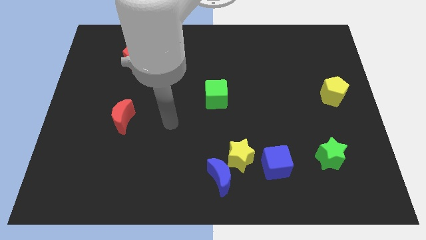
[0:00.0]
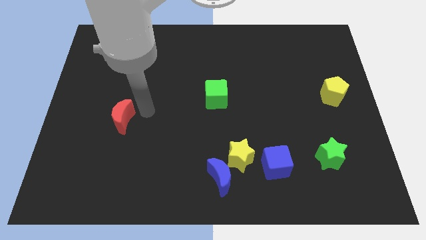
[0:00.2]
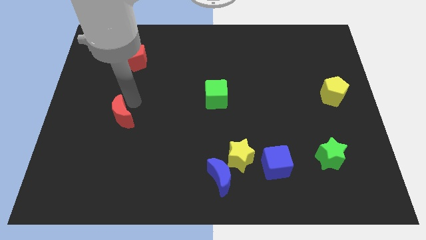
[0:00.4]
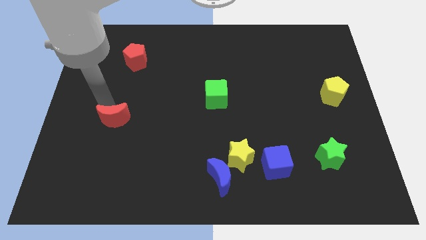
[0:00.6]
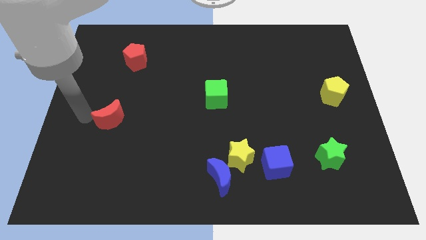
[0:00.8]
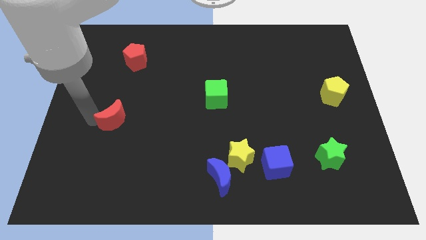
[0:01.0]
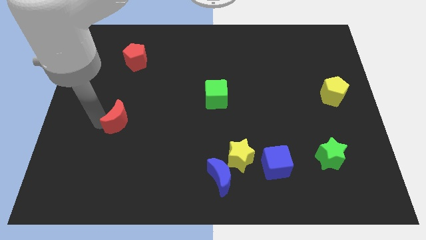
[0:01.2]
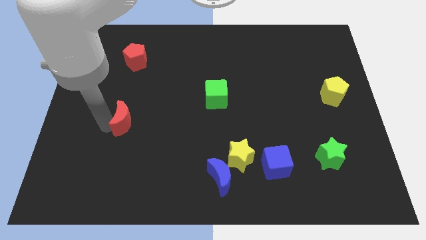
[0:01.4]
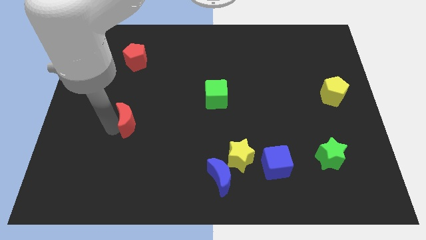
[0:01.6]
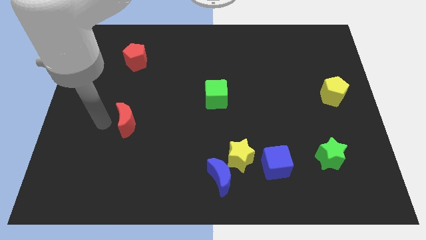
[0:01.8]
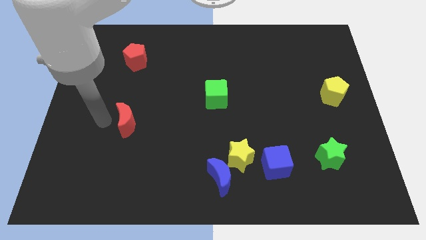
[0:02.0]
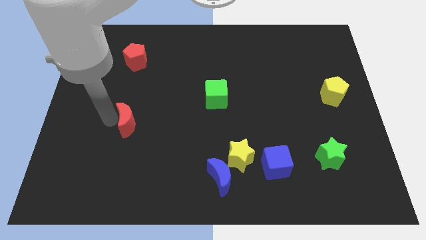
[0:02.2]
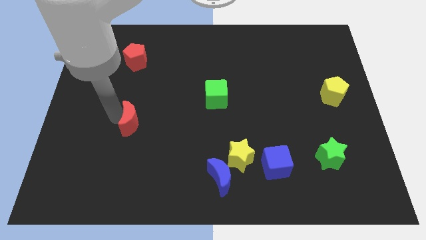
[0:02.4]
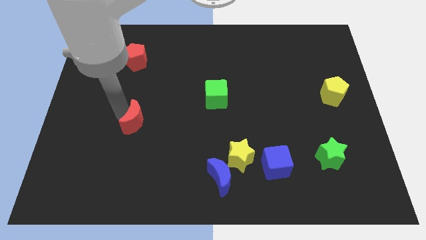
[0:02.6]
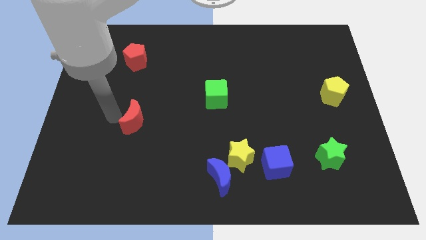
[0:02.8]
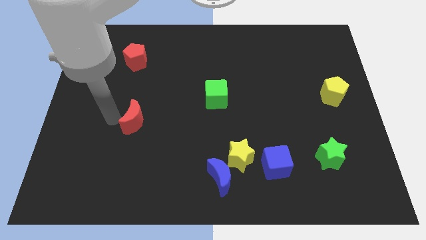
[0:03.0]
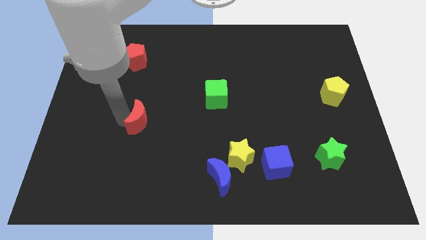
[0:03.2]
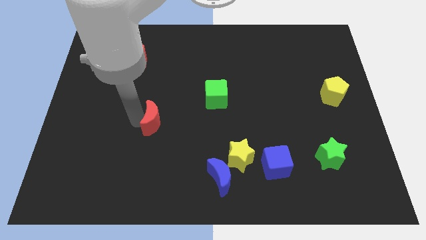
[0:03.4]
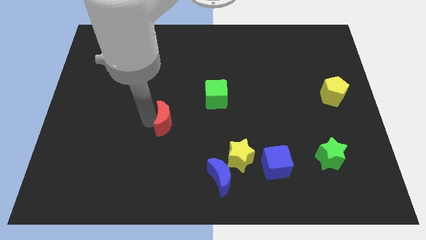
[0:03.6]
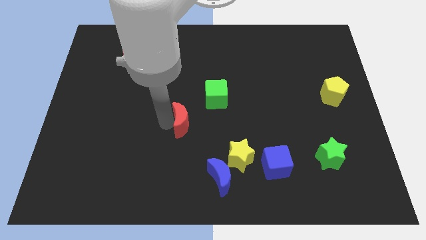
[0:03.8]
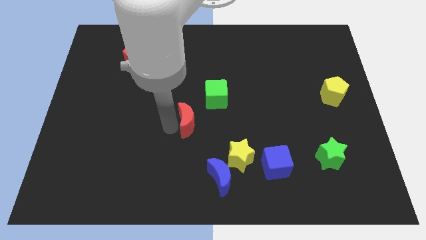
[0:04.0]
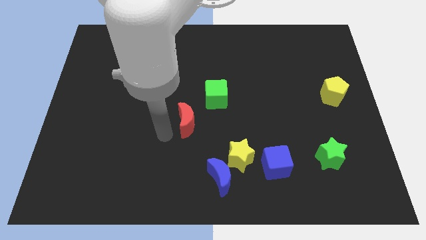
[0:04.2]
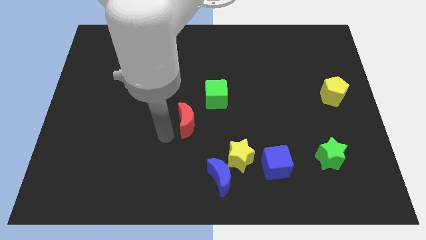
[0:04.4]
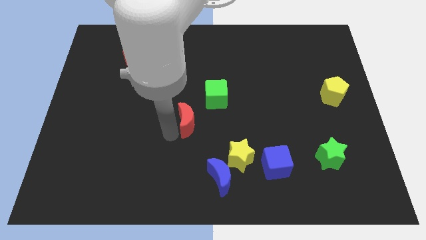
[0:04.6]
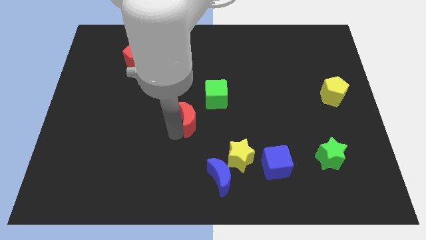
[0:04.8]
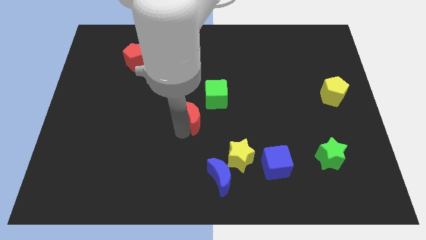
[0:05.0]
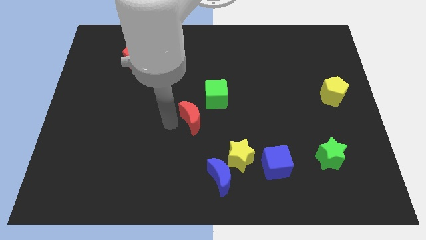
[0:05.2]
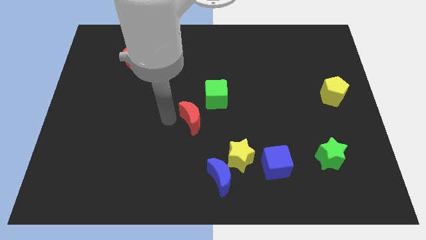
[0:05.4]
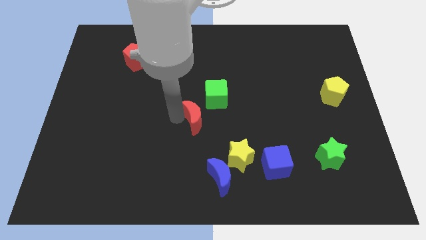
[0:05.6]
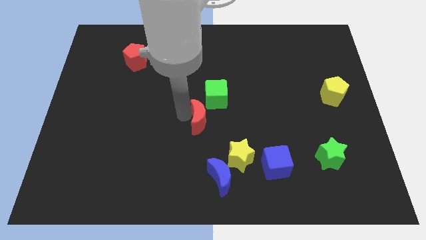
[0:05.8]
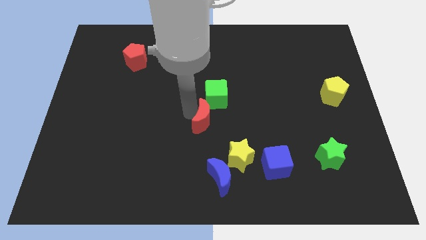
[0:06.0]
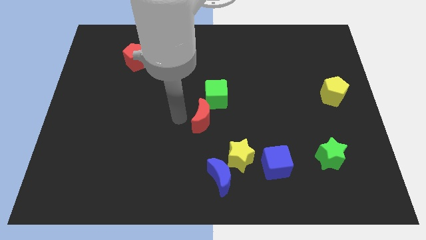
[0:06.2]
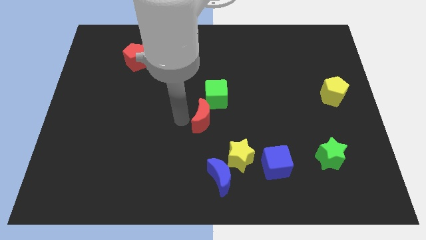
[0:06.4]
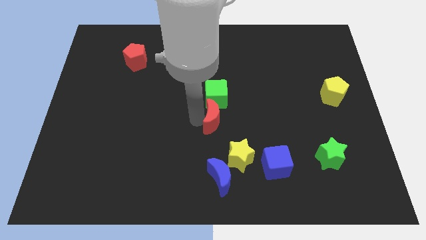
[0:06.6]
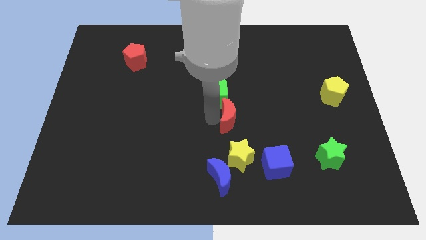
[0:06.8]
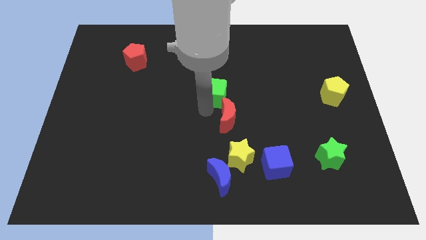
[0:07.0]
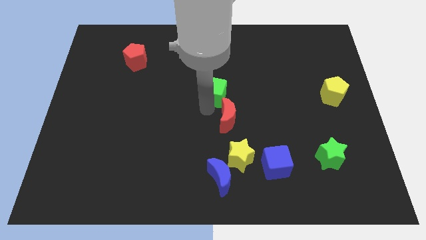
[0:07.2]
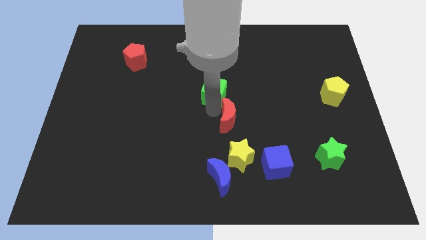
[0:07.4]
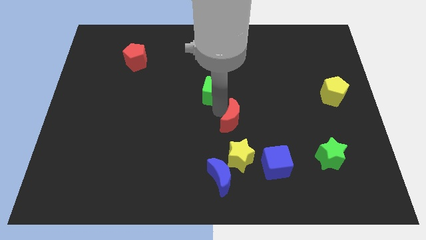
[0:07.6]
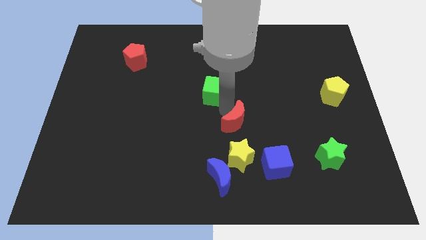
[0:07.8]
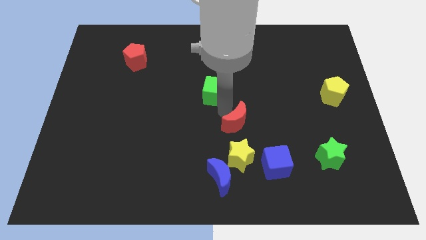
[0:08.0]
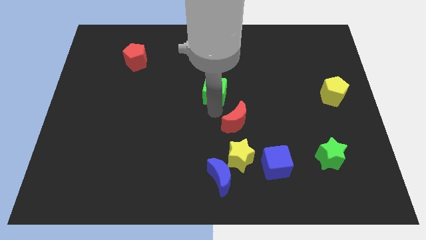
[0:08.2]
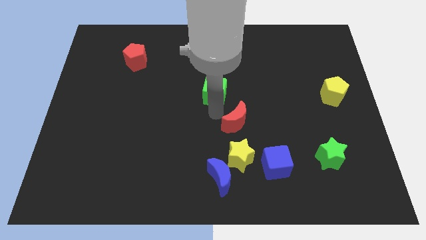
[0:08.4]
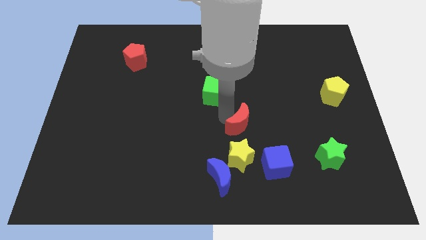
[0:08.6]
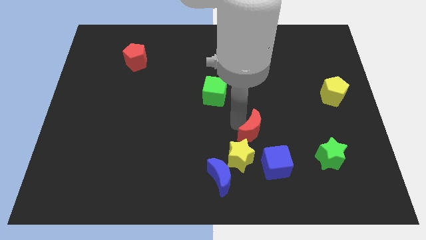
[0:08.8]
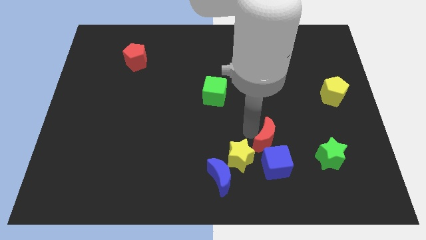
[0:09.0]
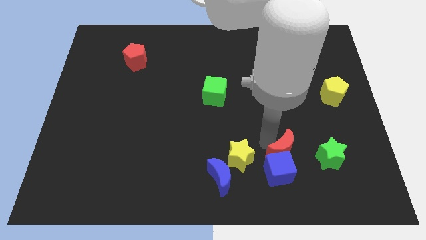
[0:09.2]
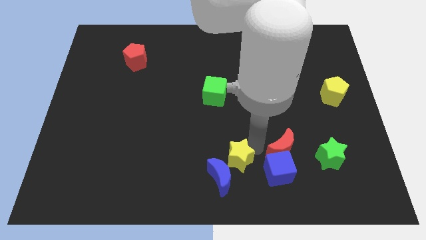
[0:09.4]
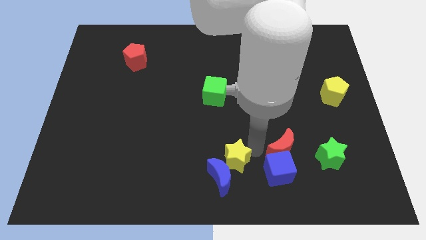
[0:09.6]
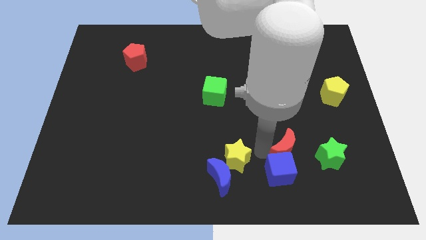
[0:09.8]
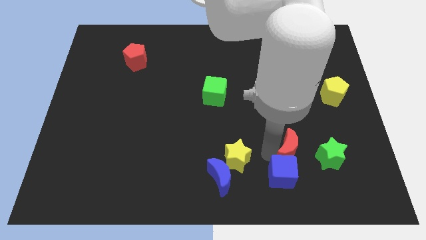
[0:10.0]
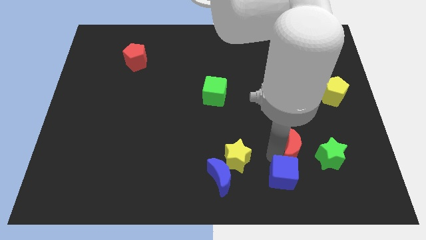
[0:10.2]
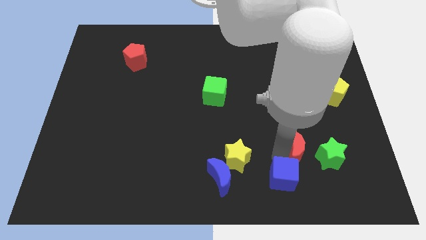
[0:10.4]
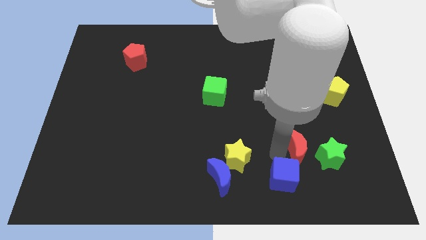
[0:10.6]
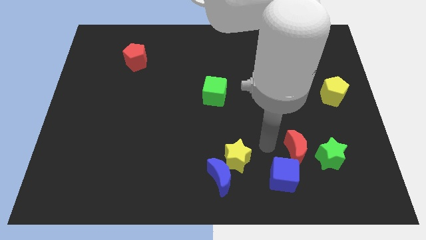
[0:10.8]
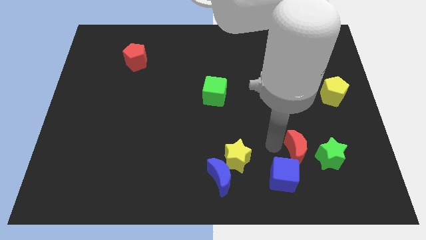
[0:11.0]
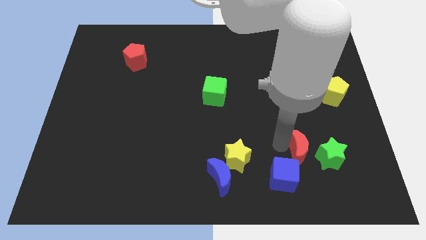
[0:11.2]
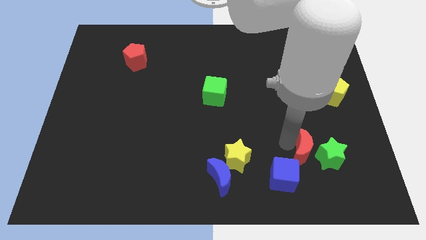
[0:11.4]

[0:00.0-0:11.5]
slide the red moon towards the green star
